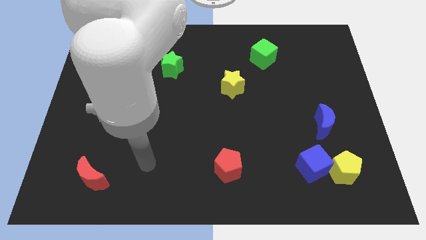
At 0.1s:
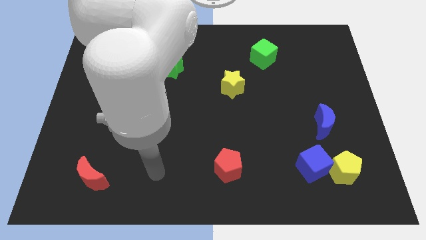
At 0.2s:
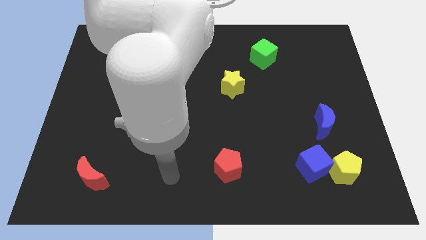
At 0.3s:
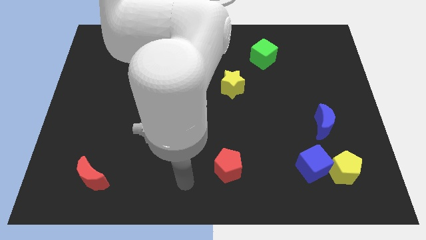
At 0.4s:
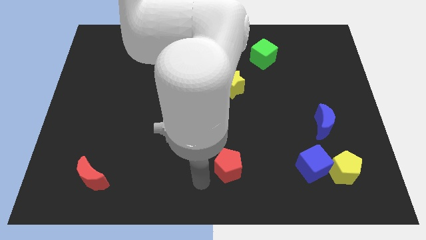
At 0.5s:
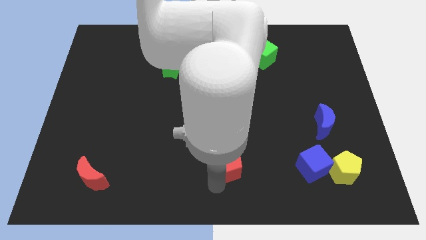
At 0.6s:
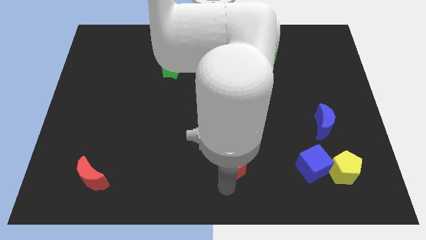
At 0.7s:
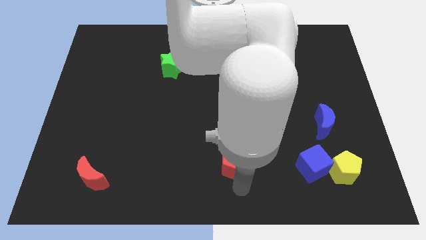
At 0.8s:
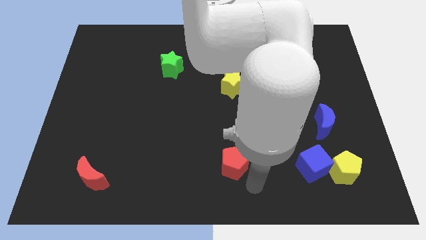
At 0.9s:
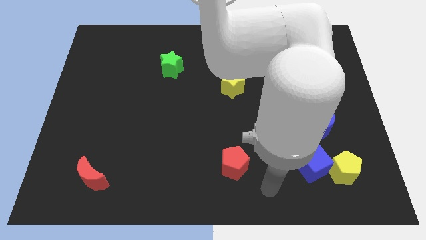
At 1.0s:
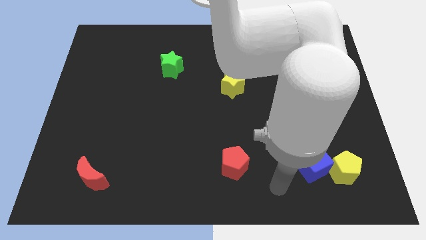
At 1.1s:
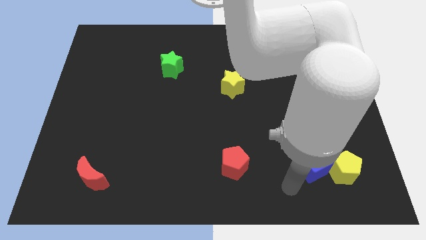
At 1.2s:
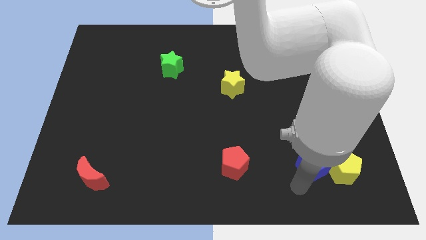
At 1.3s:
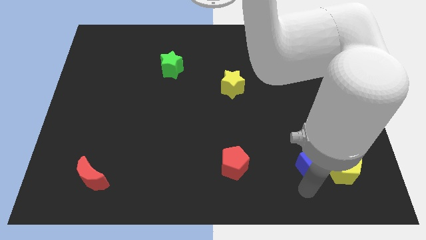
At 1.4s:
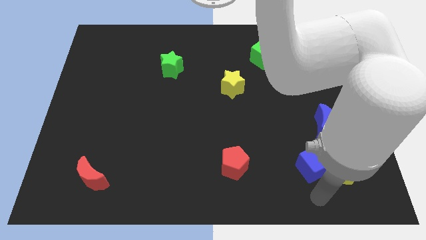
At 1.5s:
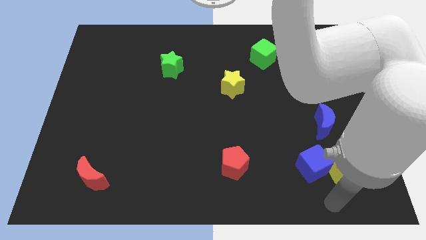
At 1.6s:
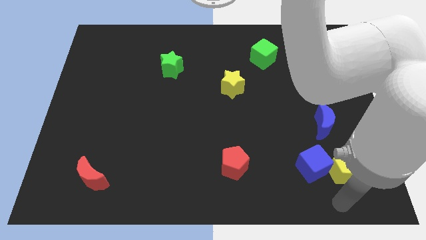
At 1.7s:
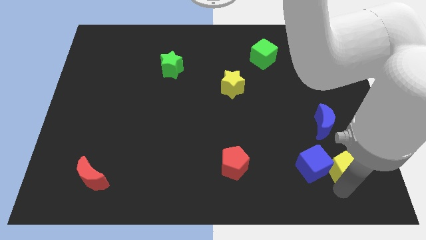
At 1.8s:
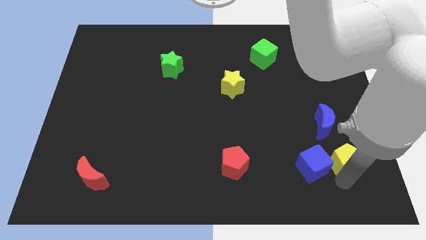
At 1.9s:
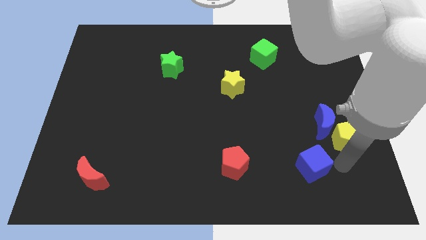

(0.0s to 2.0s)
pull the blue cube apart from the yellow pentagon

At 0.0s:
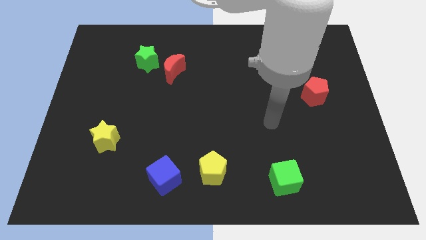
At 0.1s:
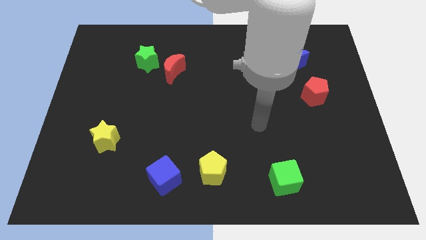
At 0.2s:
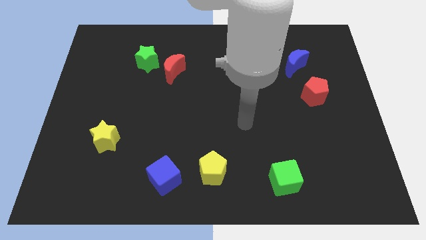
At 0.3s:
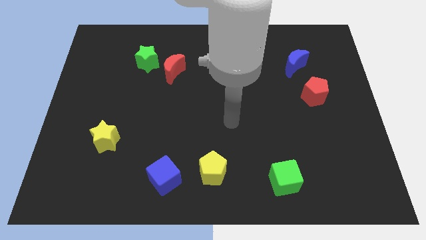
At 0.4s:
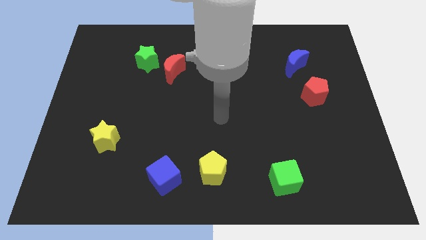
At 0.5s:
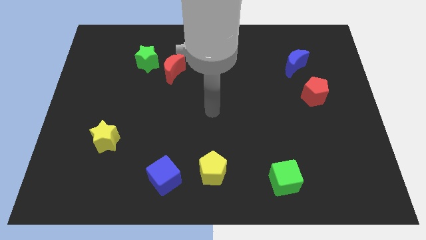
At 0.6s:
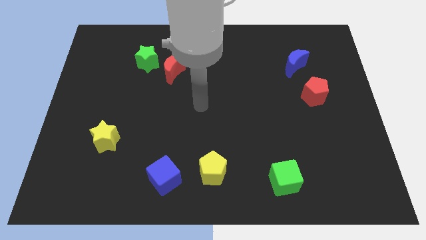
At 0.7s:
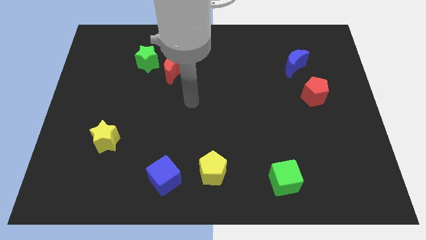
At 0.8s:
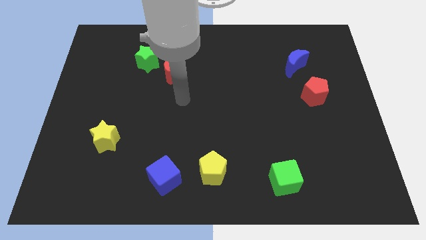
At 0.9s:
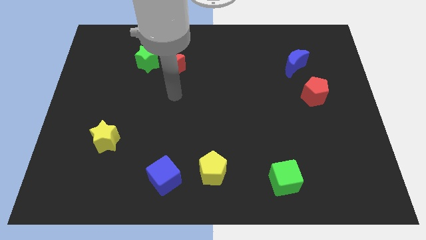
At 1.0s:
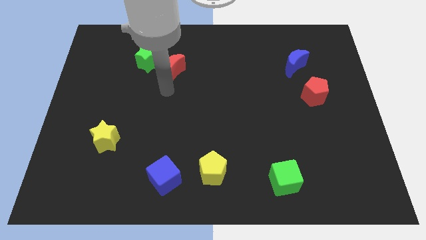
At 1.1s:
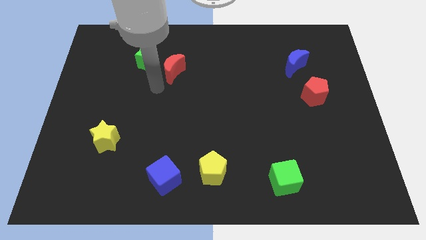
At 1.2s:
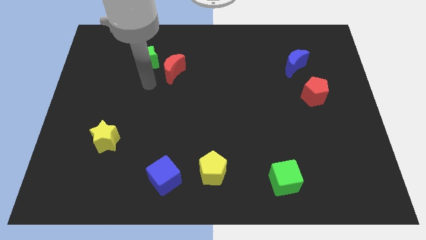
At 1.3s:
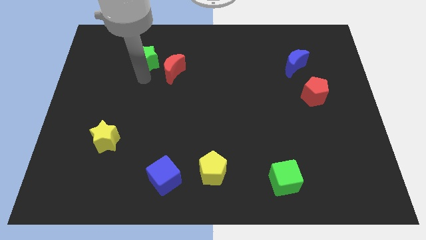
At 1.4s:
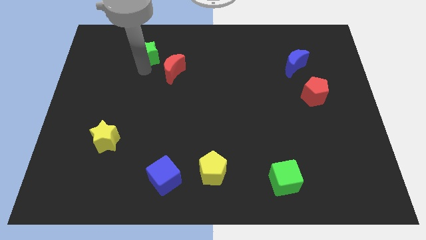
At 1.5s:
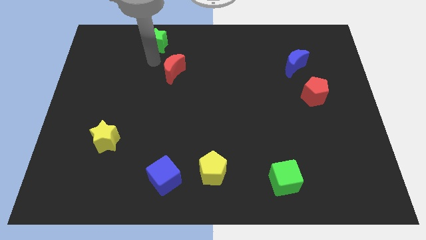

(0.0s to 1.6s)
separate the red moon from the green star

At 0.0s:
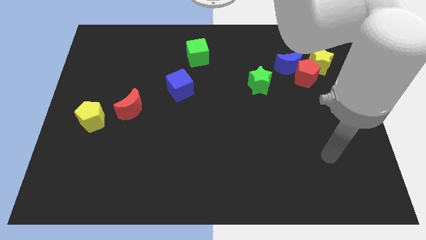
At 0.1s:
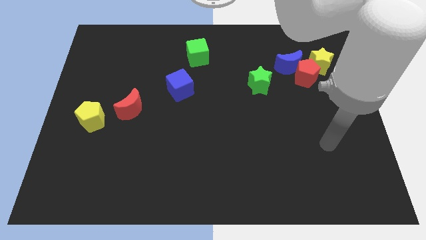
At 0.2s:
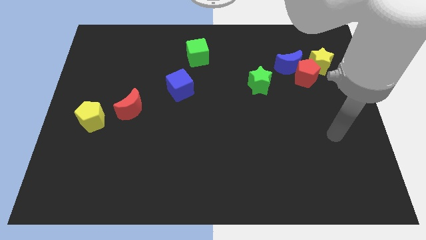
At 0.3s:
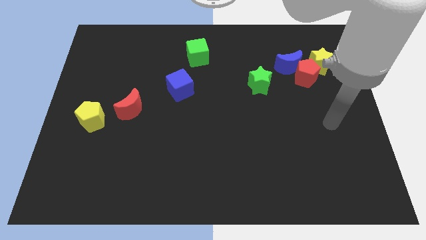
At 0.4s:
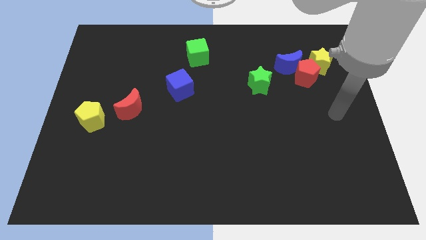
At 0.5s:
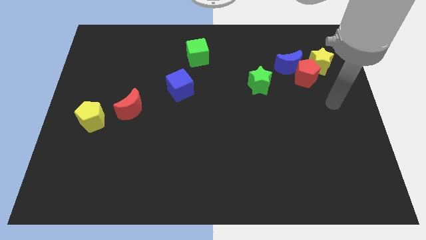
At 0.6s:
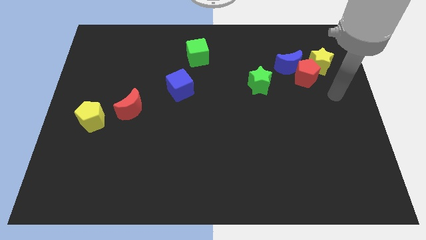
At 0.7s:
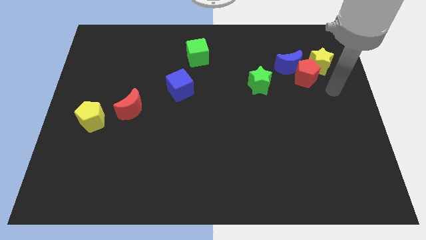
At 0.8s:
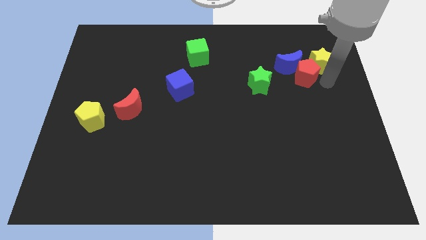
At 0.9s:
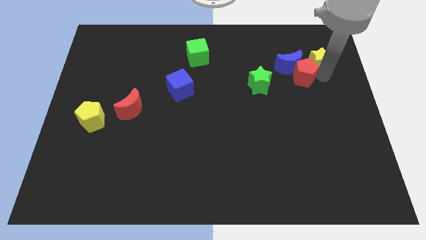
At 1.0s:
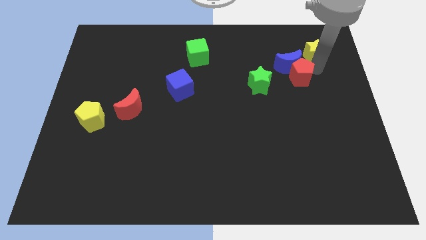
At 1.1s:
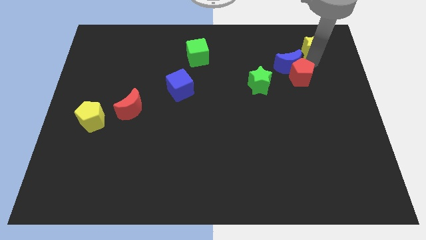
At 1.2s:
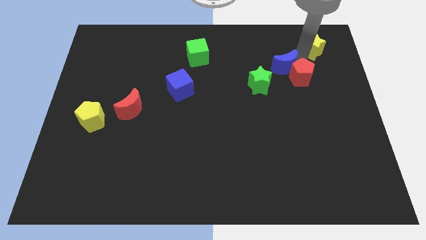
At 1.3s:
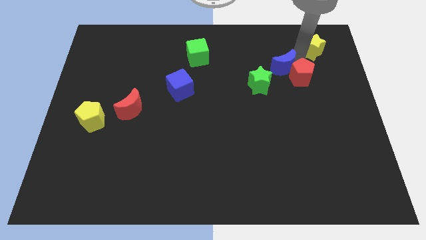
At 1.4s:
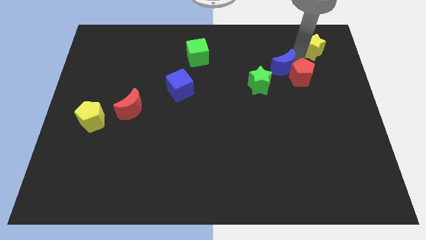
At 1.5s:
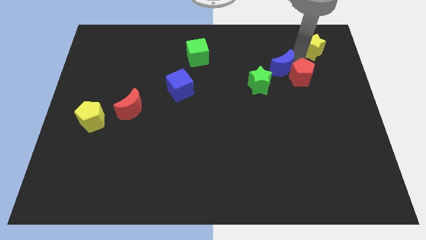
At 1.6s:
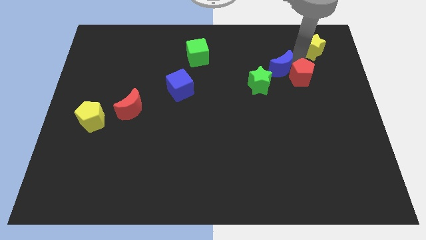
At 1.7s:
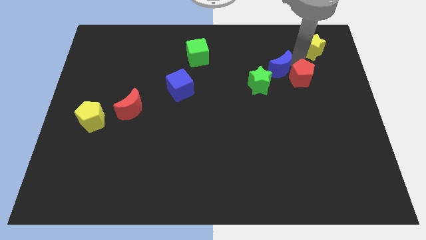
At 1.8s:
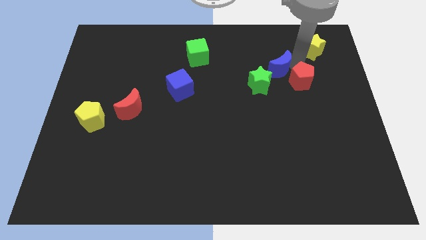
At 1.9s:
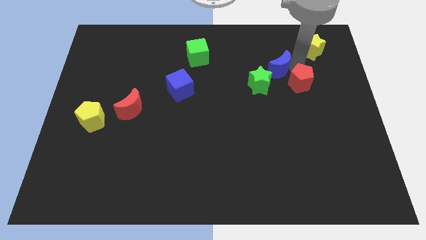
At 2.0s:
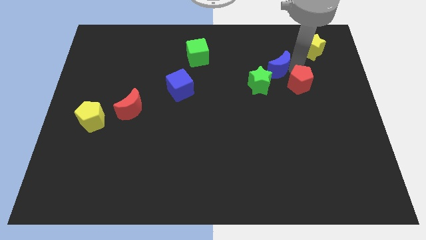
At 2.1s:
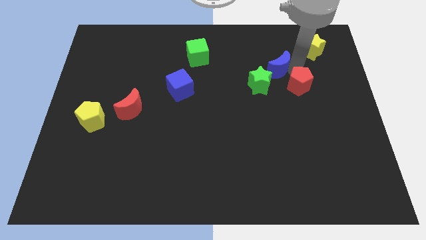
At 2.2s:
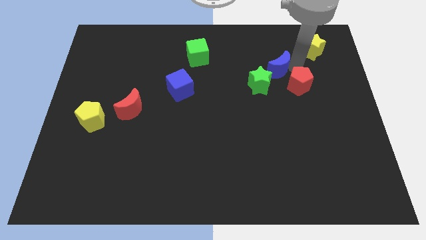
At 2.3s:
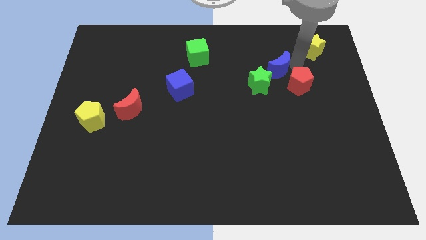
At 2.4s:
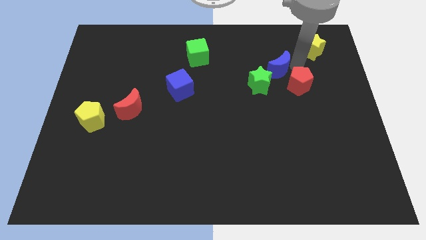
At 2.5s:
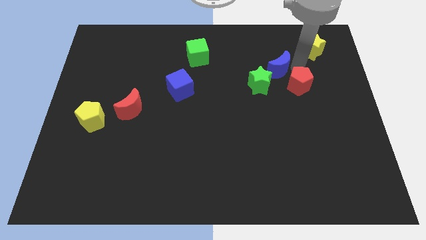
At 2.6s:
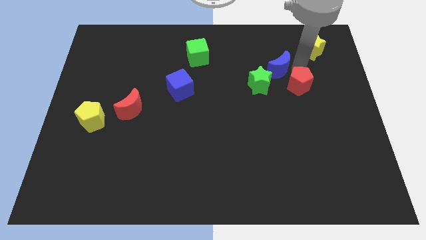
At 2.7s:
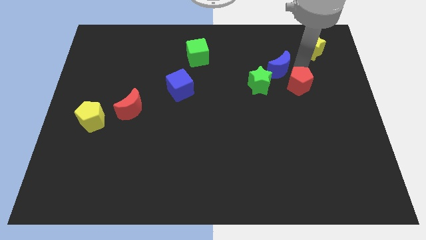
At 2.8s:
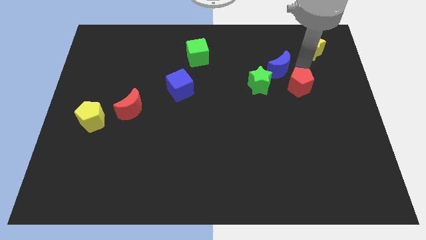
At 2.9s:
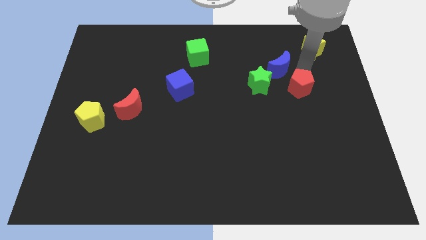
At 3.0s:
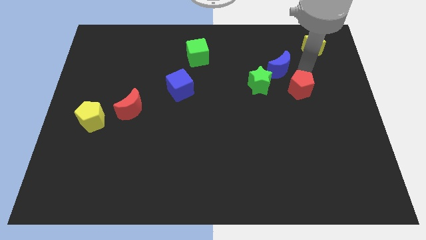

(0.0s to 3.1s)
separate the red pentagon from the blue moon and yellow star

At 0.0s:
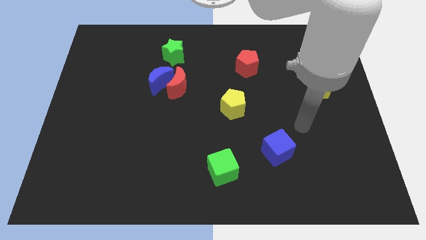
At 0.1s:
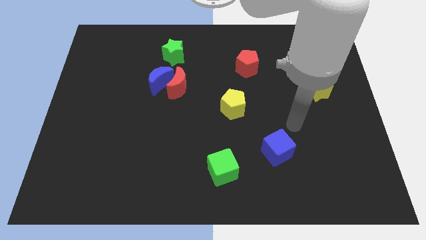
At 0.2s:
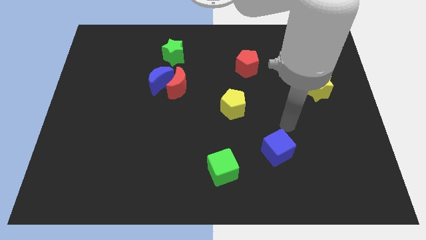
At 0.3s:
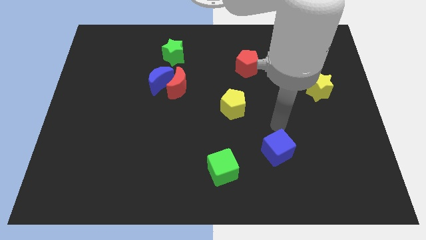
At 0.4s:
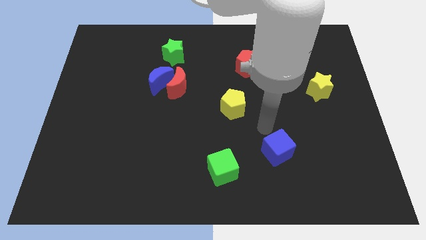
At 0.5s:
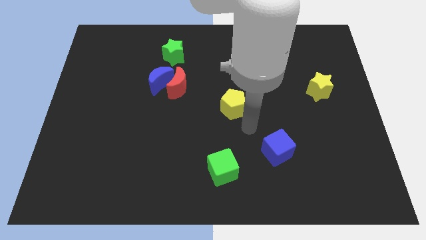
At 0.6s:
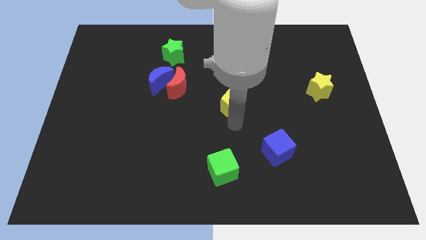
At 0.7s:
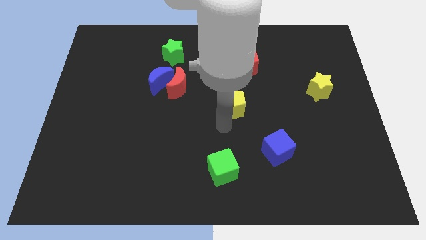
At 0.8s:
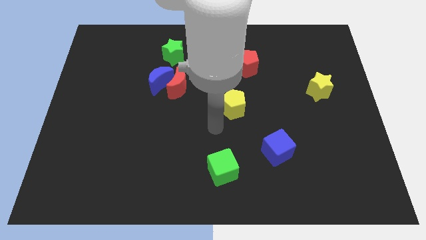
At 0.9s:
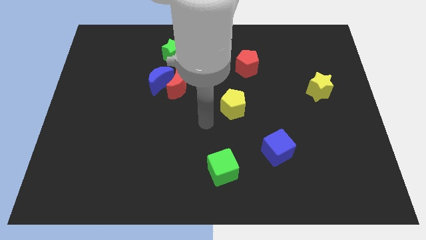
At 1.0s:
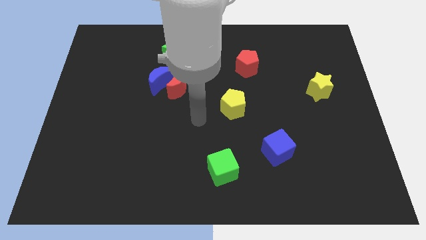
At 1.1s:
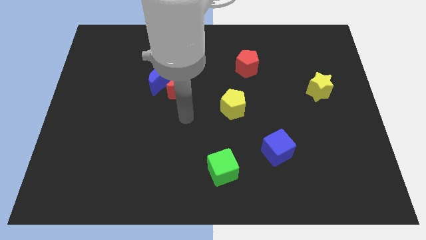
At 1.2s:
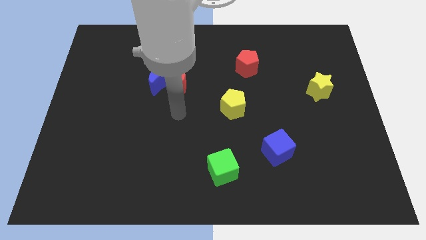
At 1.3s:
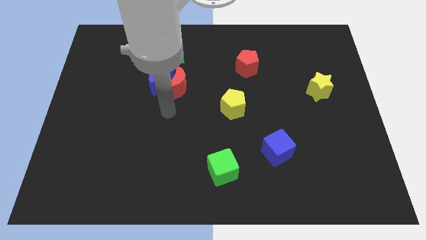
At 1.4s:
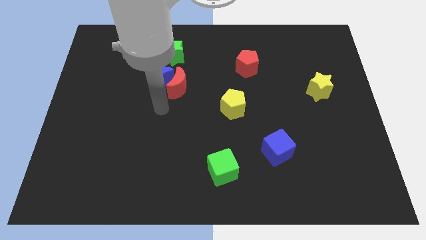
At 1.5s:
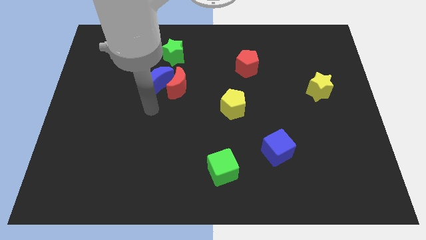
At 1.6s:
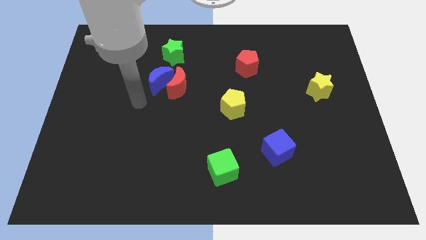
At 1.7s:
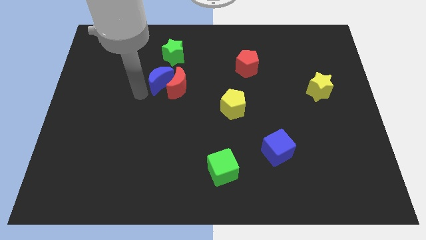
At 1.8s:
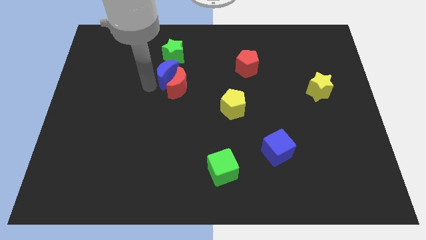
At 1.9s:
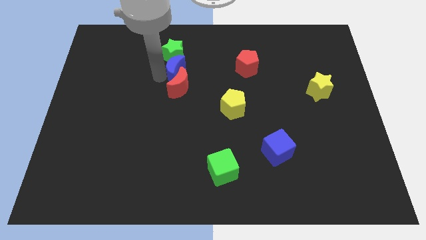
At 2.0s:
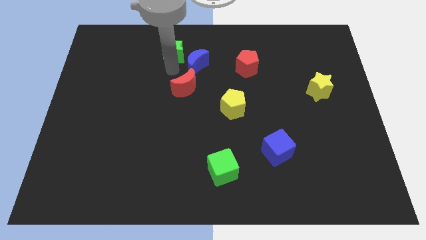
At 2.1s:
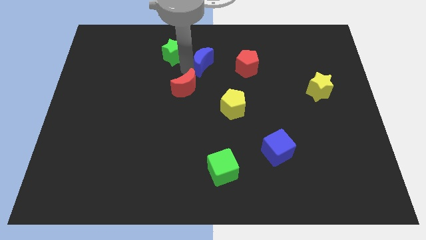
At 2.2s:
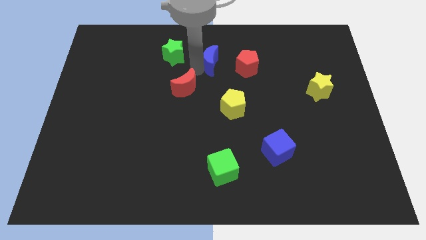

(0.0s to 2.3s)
separate the red moon from the blue moon

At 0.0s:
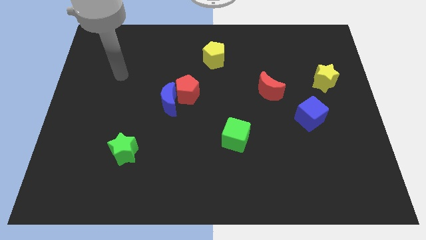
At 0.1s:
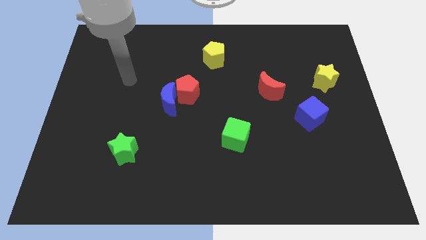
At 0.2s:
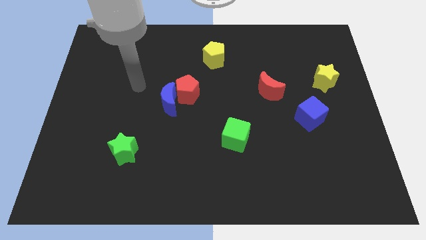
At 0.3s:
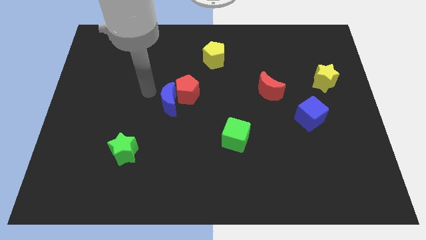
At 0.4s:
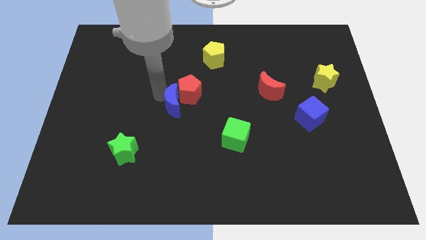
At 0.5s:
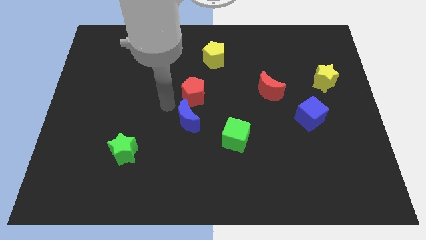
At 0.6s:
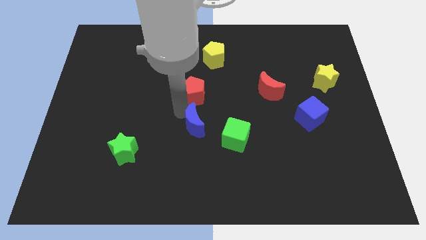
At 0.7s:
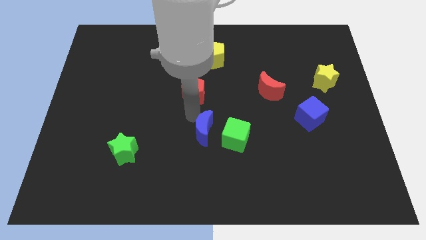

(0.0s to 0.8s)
separate the red pentagon from the blue moon
